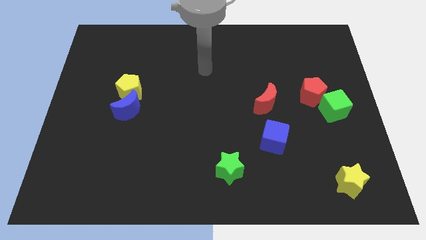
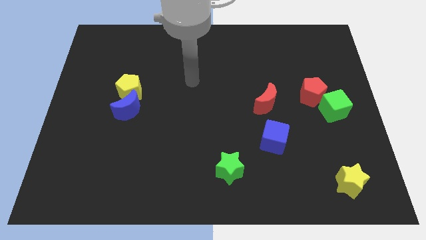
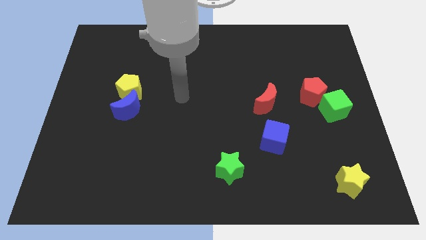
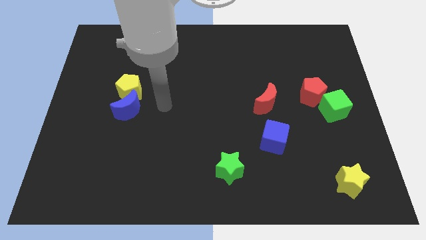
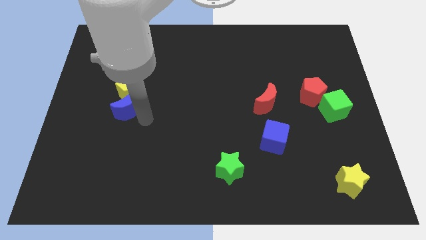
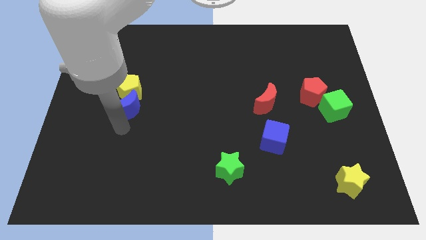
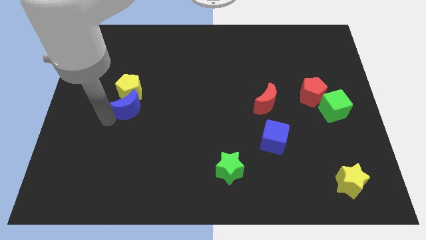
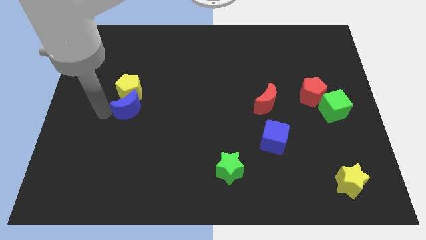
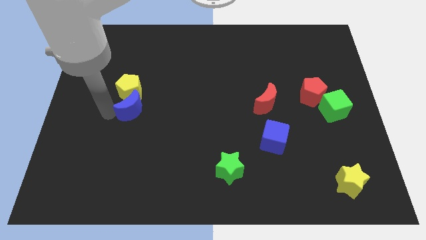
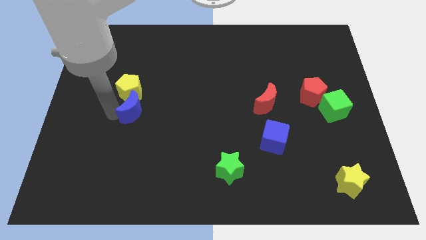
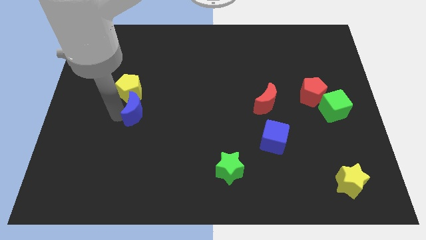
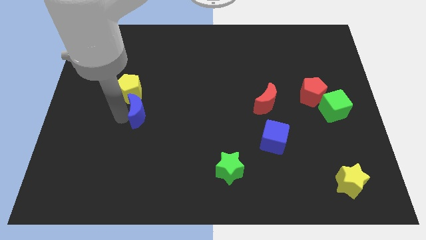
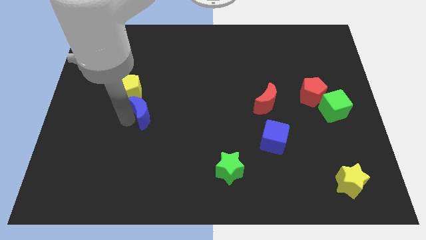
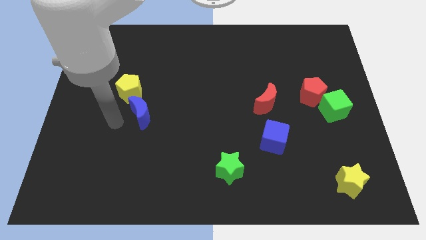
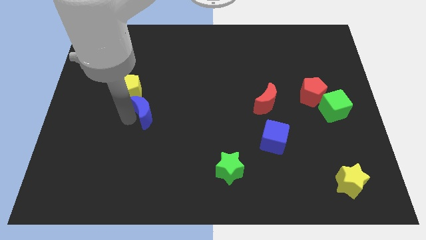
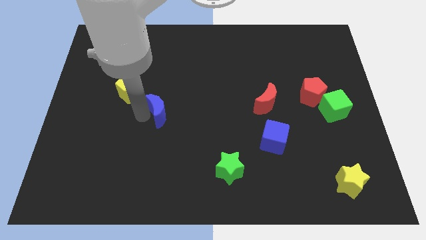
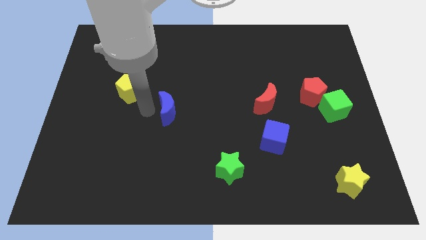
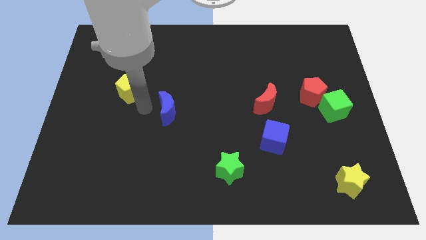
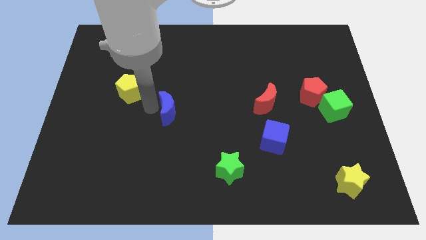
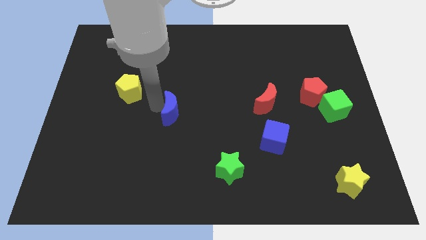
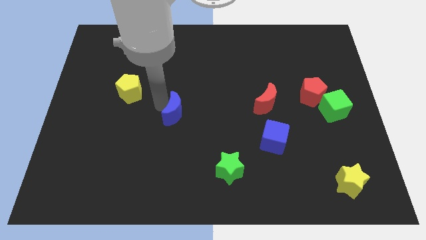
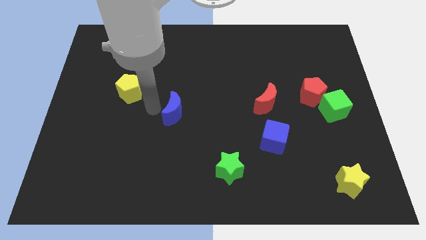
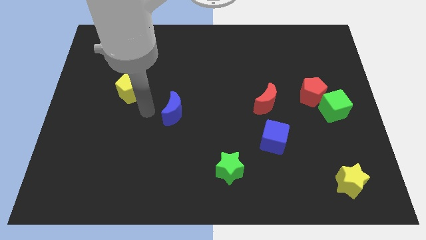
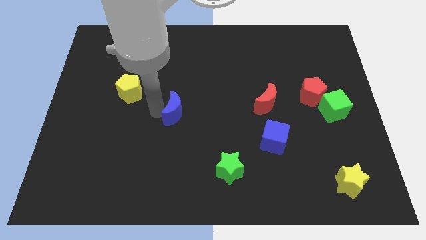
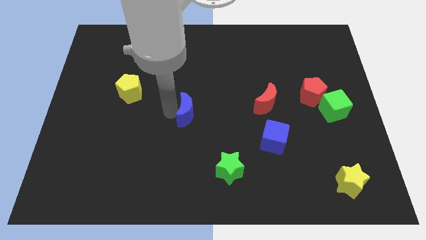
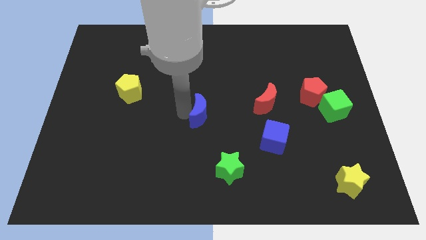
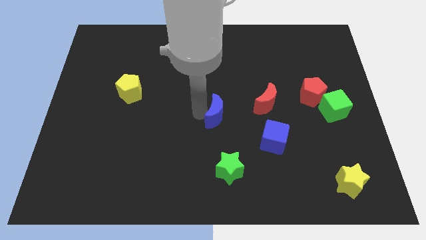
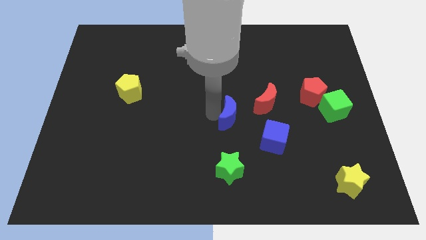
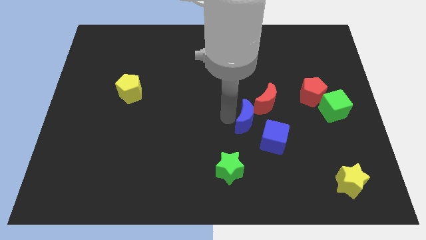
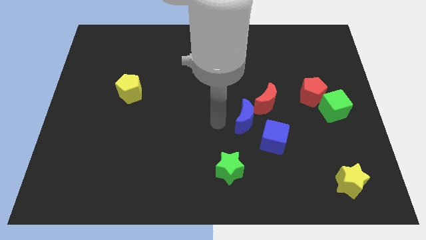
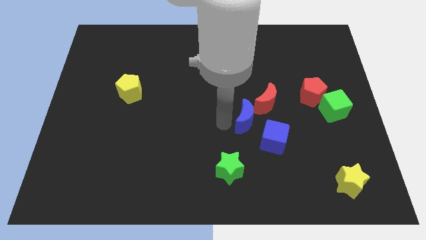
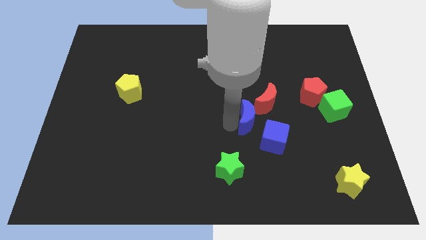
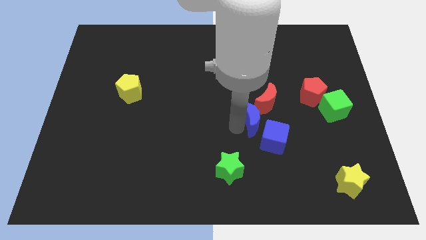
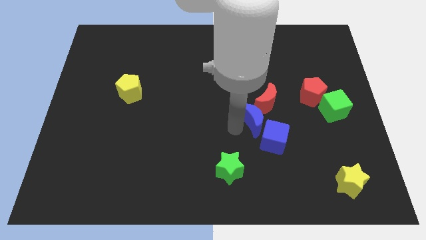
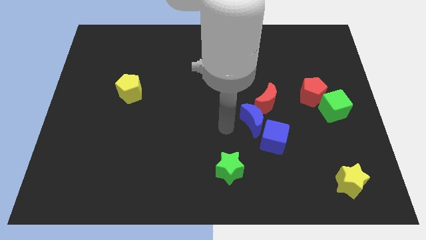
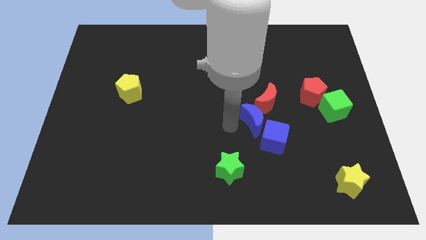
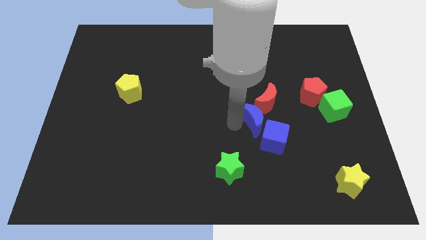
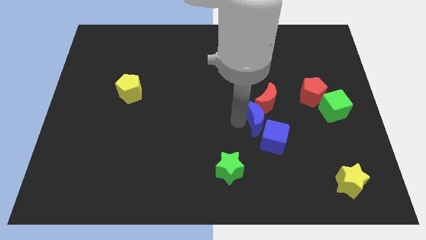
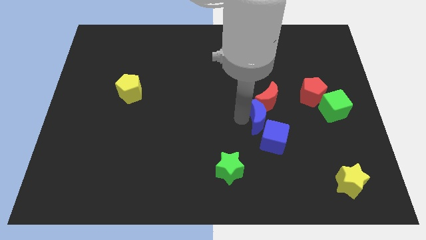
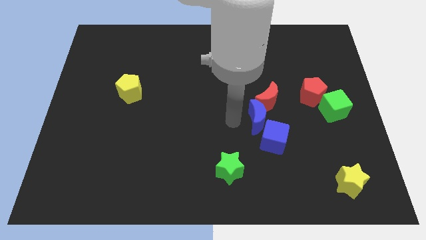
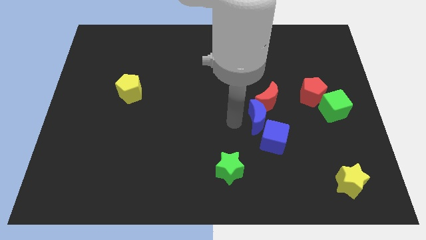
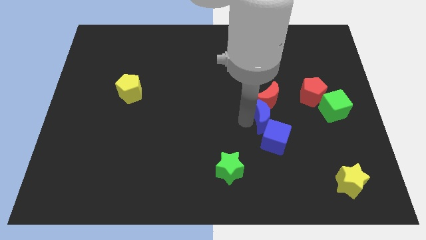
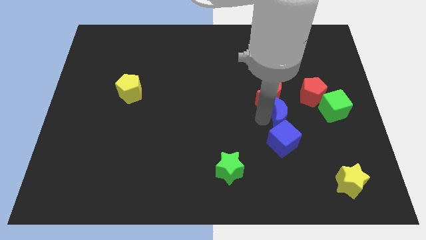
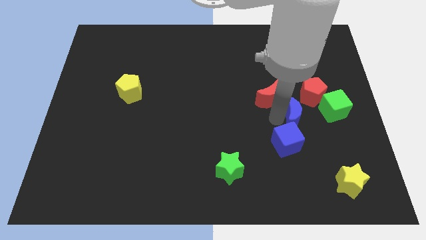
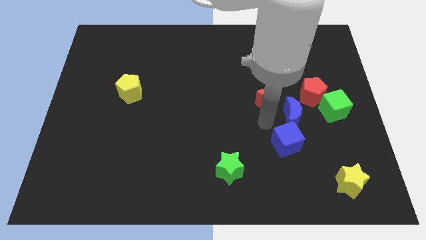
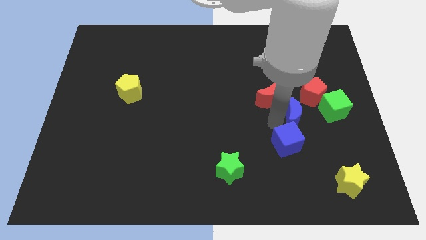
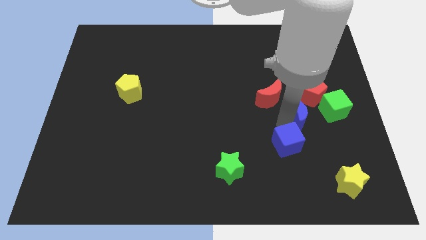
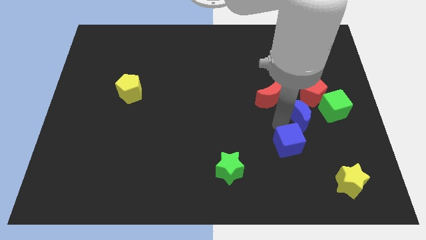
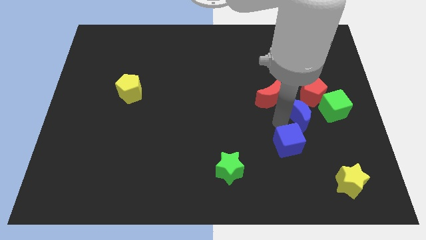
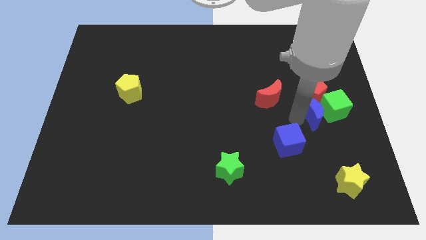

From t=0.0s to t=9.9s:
move the blue moon towards the green cube

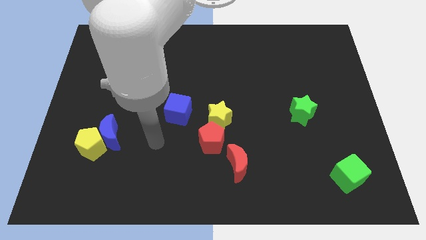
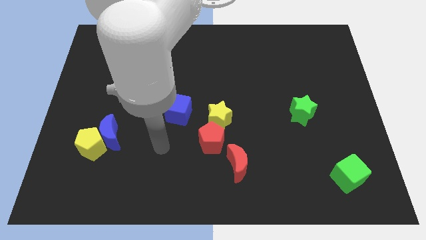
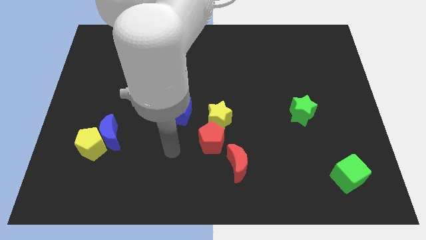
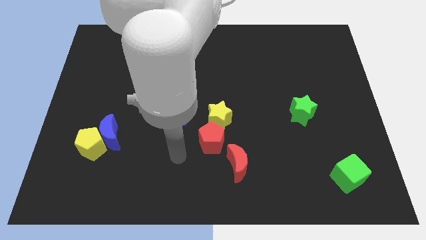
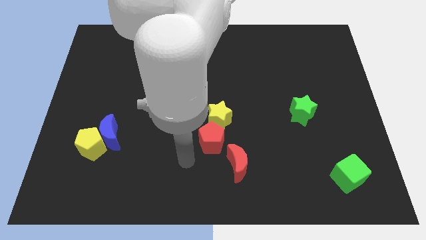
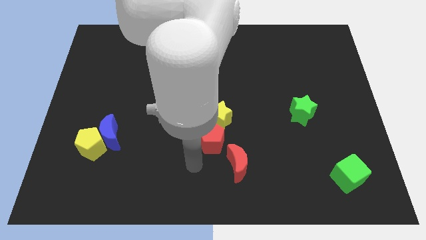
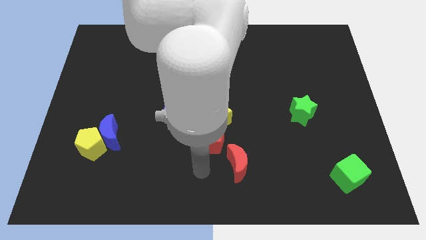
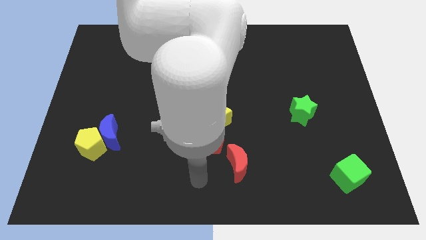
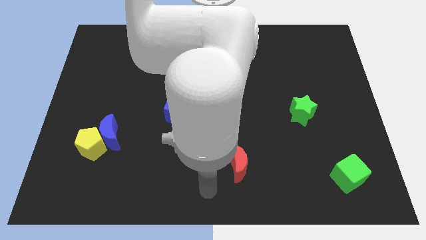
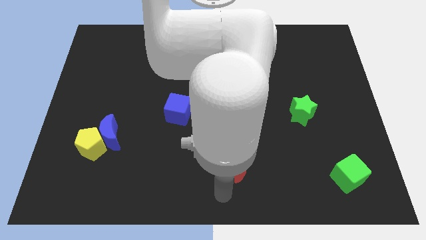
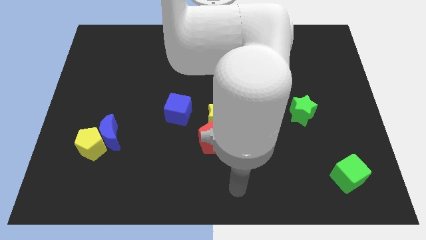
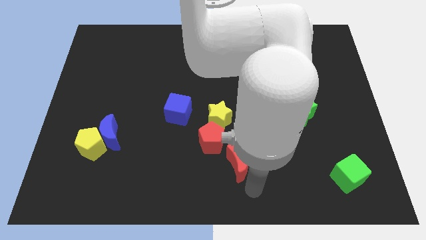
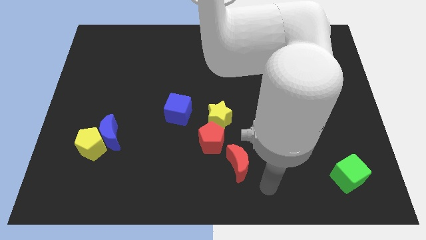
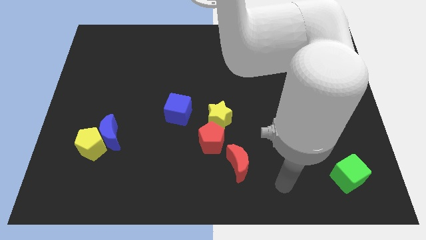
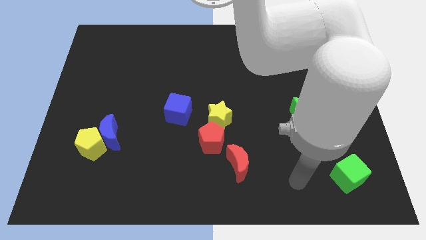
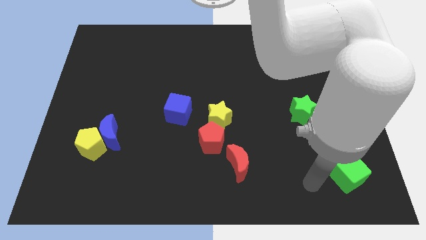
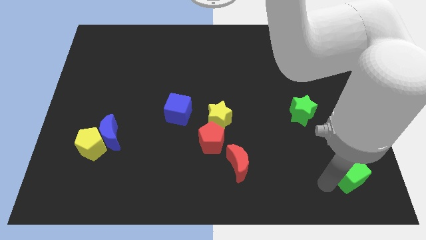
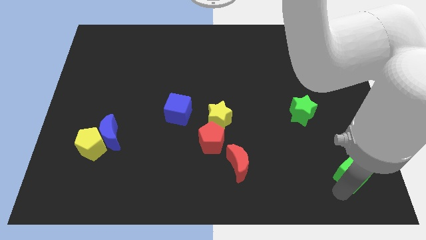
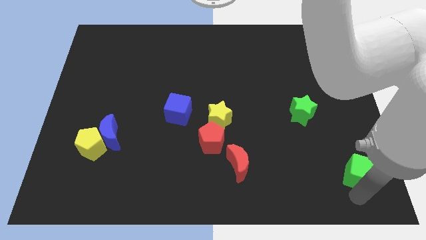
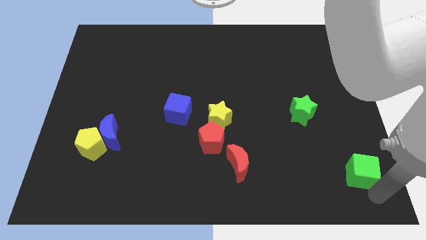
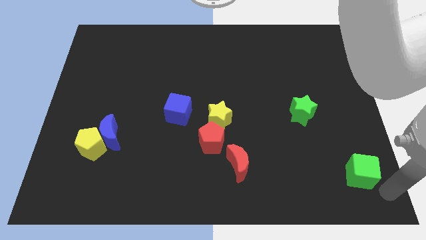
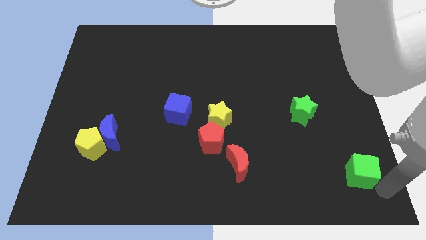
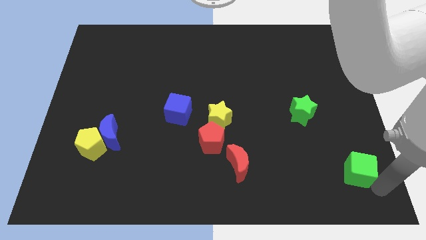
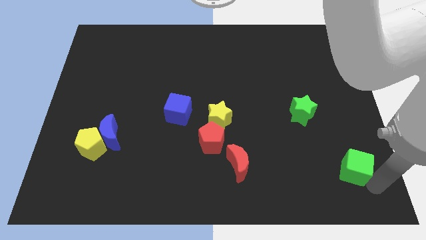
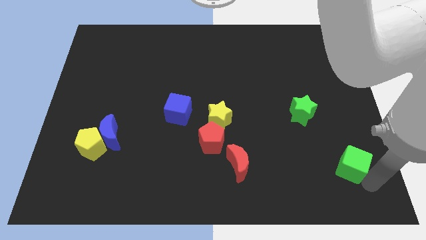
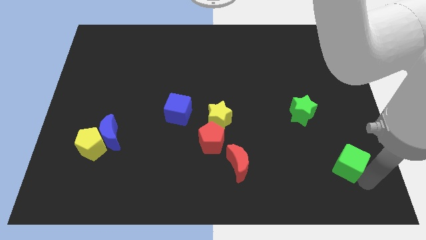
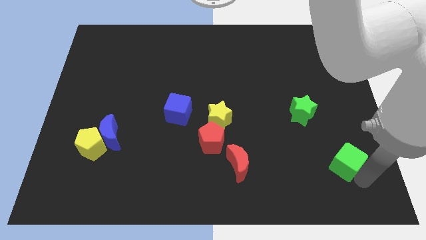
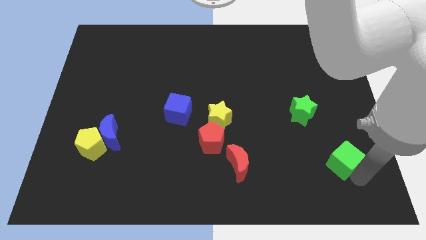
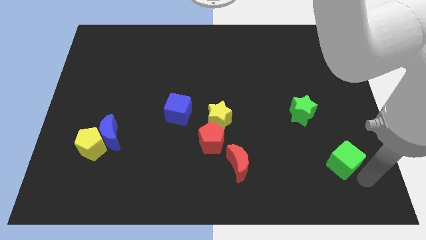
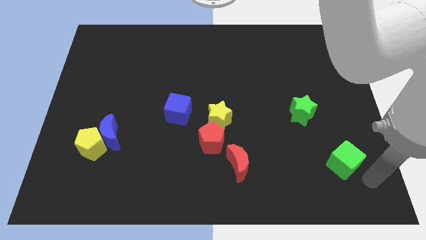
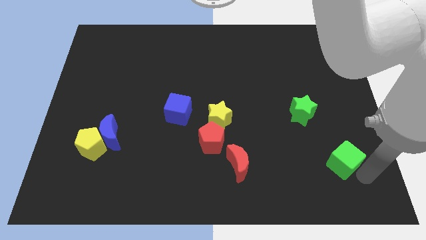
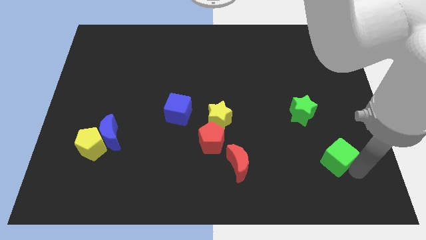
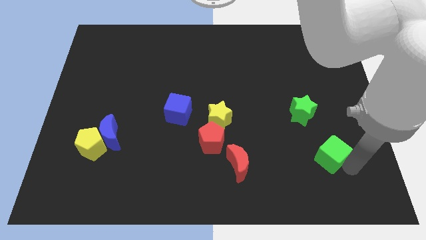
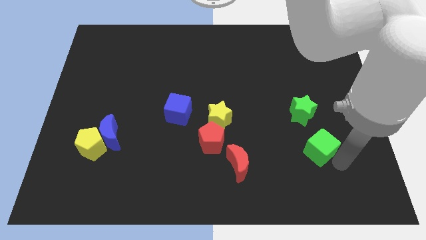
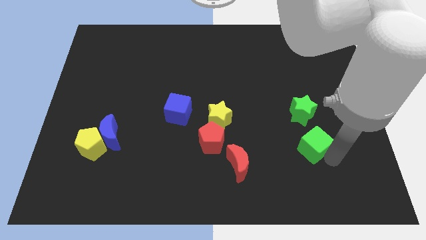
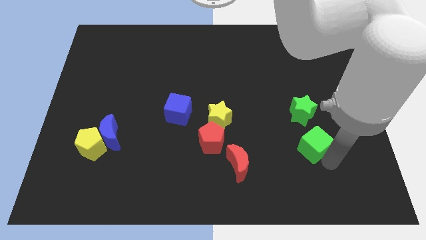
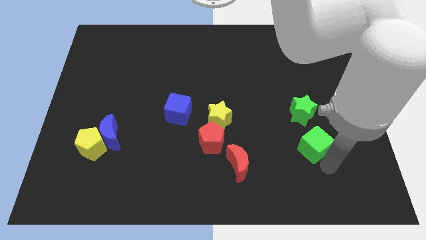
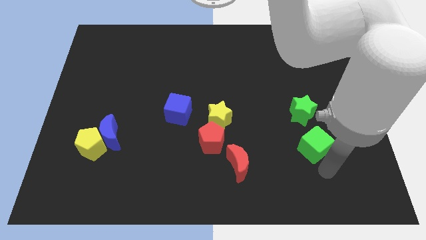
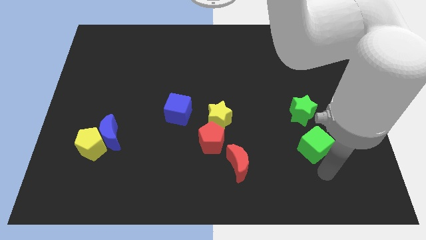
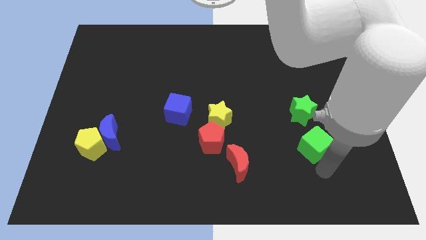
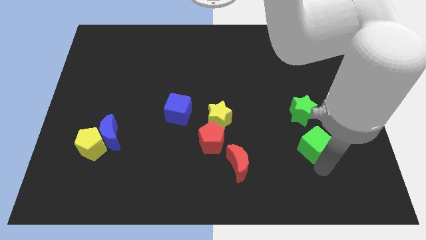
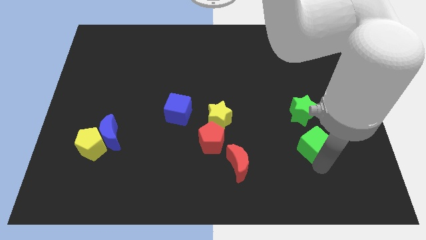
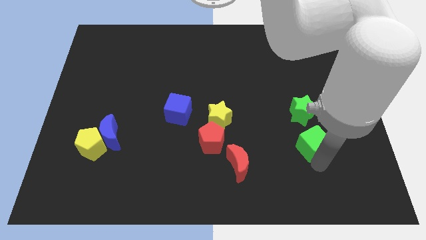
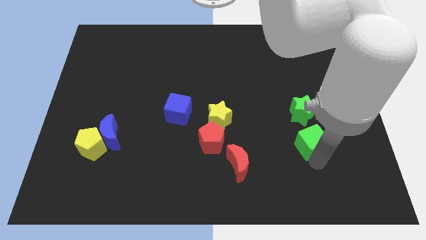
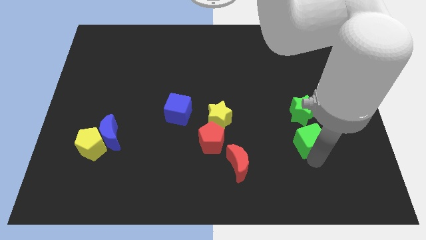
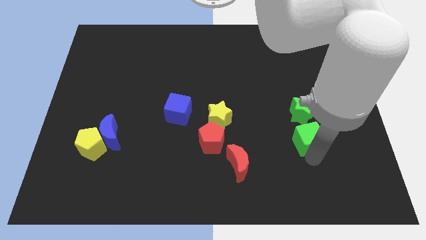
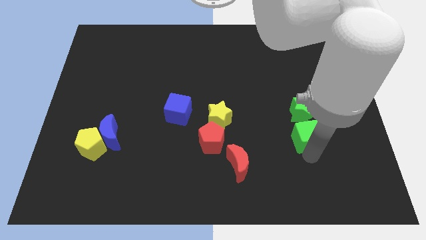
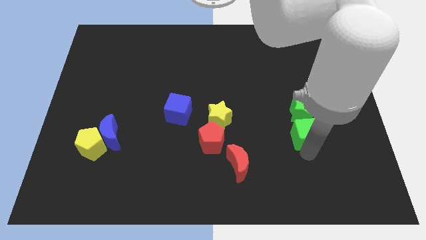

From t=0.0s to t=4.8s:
push the green cube to the green star
